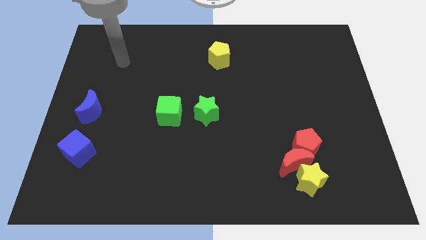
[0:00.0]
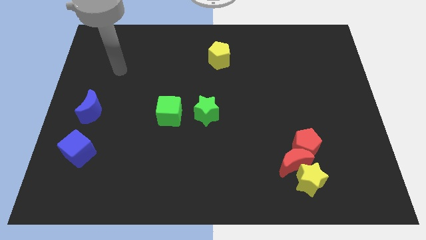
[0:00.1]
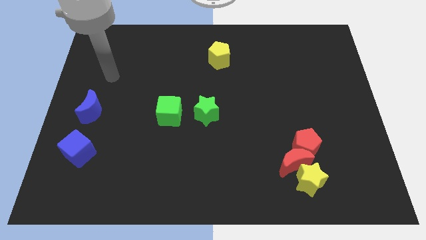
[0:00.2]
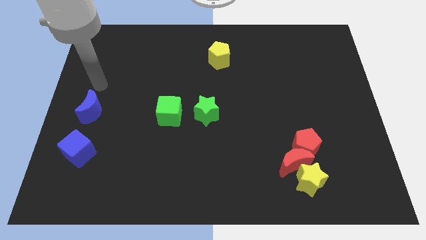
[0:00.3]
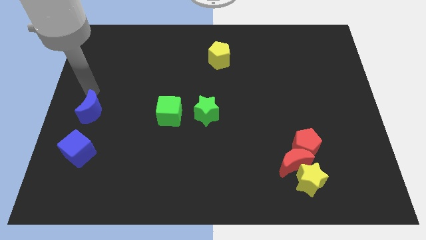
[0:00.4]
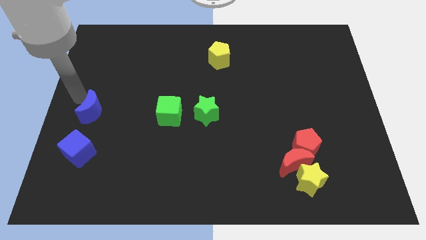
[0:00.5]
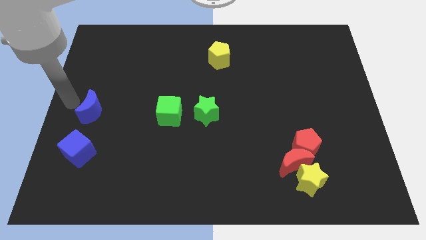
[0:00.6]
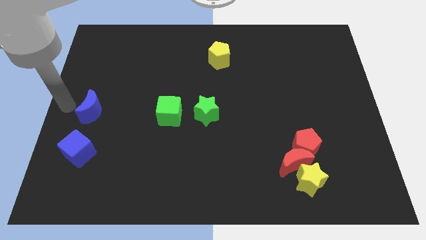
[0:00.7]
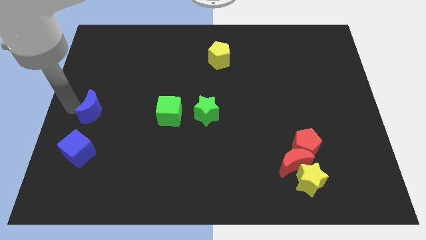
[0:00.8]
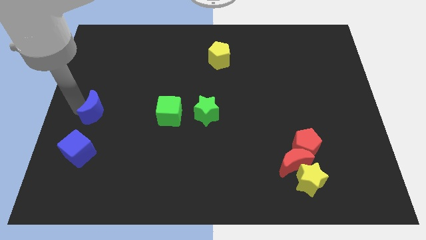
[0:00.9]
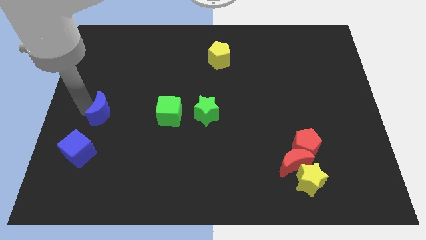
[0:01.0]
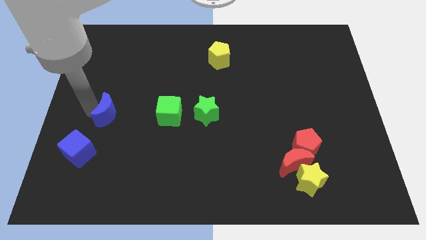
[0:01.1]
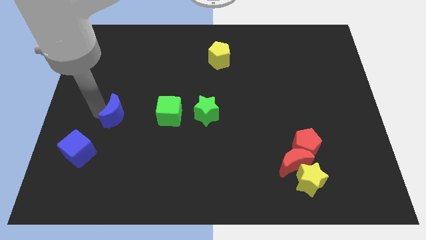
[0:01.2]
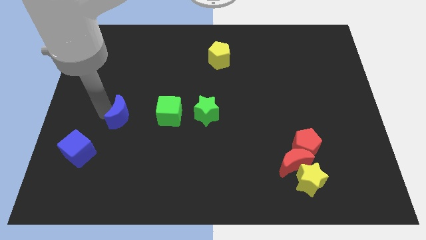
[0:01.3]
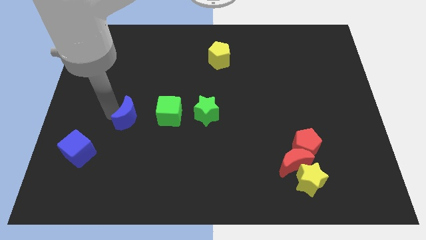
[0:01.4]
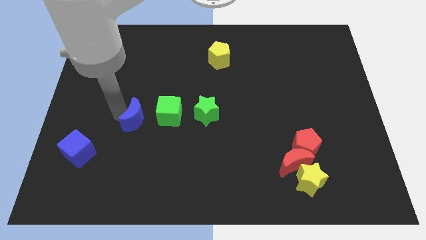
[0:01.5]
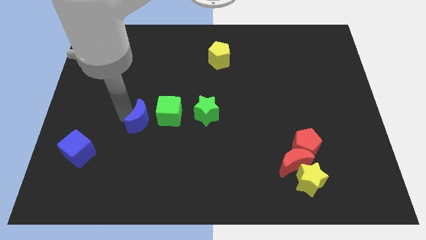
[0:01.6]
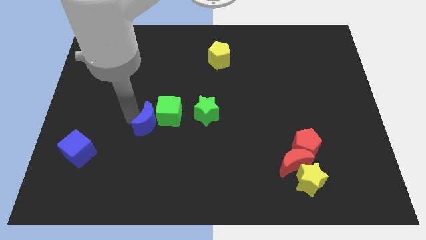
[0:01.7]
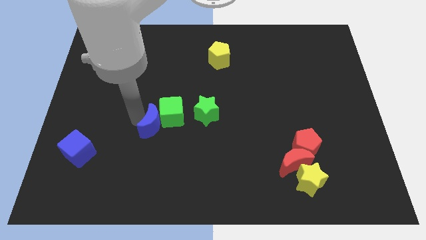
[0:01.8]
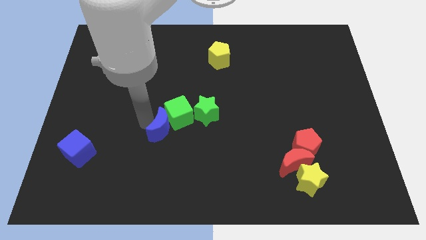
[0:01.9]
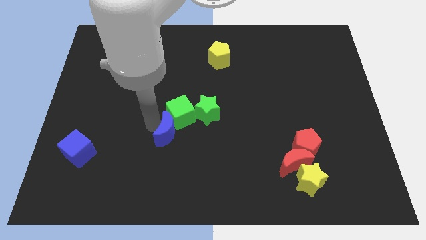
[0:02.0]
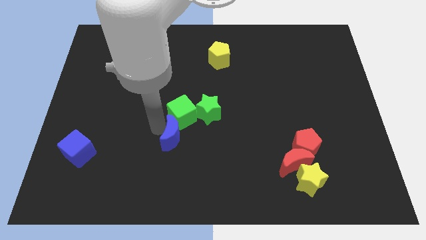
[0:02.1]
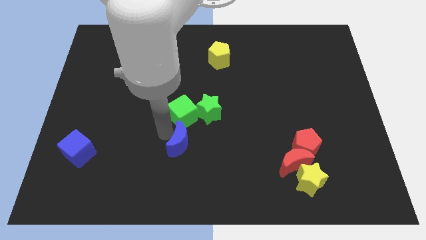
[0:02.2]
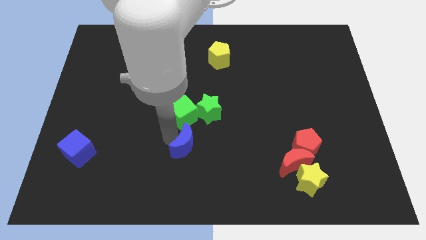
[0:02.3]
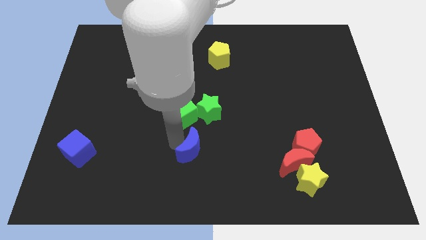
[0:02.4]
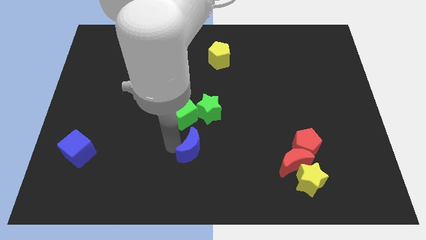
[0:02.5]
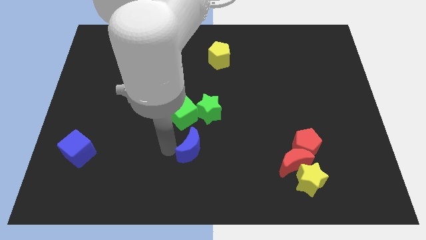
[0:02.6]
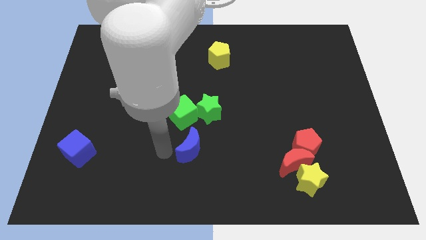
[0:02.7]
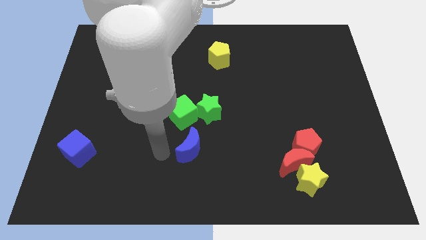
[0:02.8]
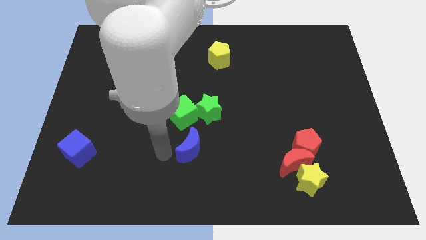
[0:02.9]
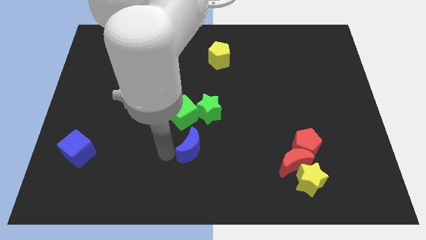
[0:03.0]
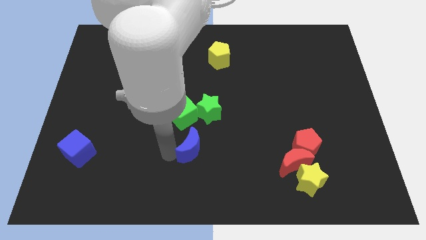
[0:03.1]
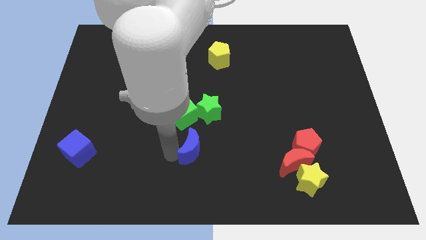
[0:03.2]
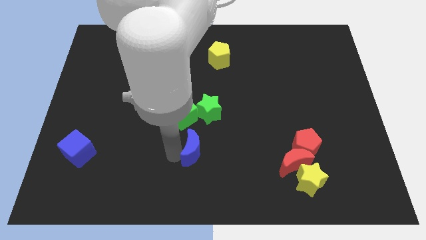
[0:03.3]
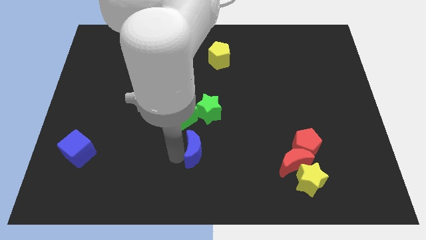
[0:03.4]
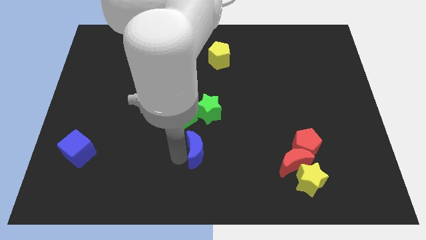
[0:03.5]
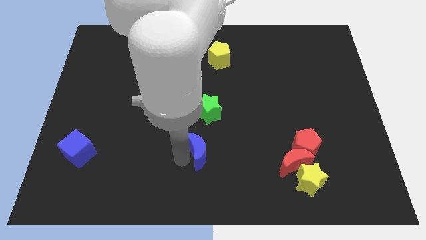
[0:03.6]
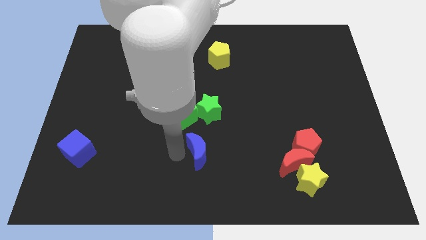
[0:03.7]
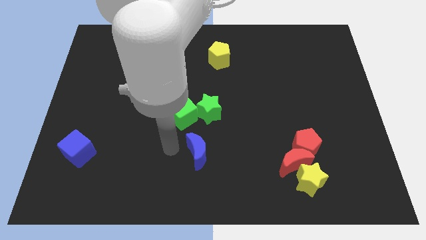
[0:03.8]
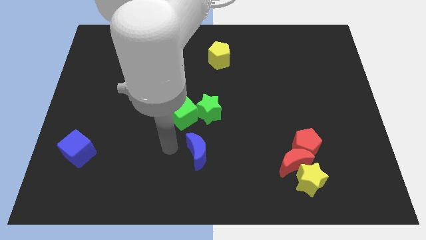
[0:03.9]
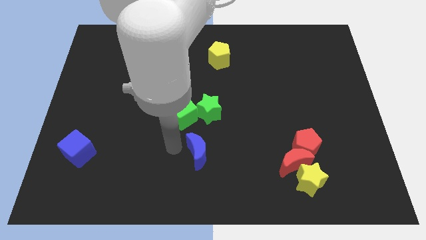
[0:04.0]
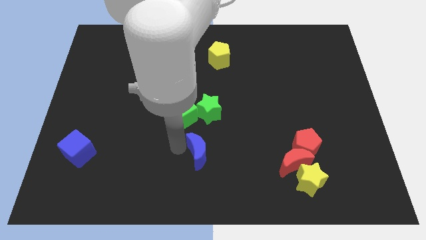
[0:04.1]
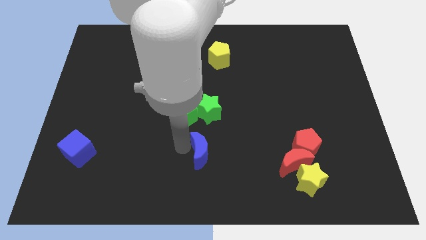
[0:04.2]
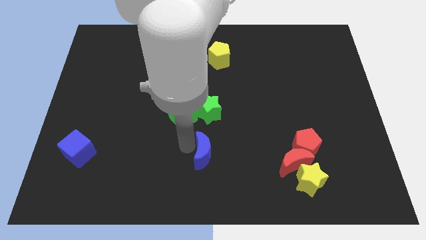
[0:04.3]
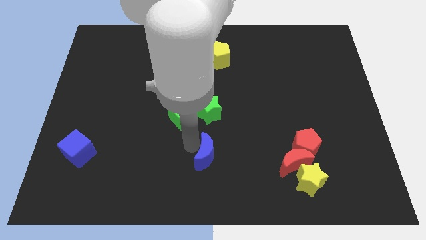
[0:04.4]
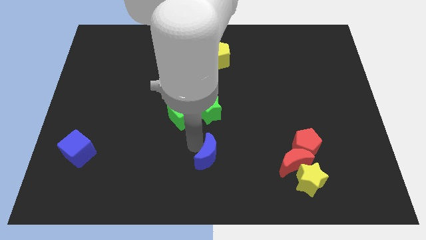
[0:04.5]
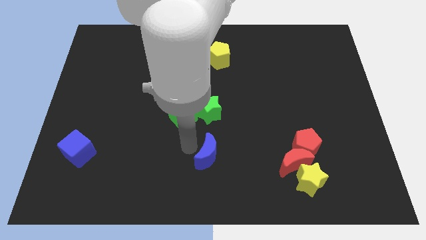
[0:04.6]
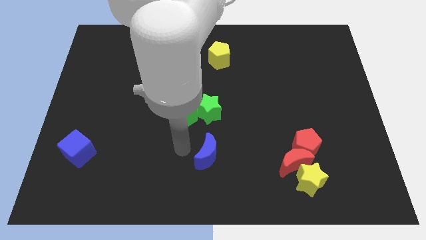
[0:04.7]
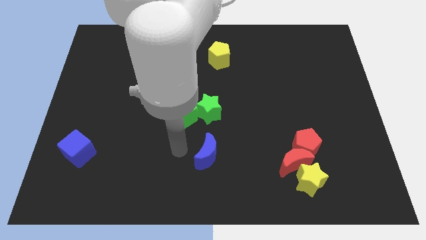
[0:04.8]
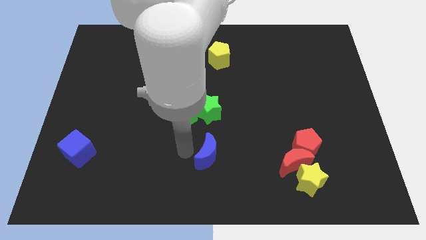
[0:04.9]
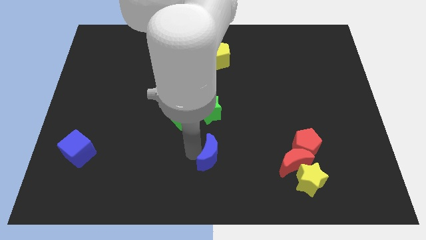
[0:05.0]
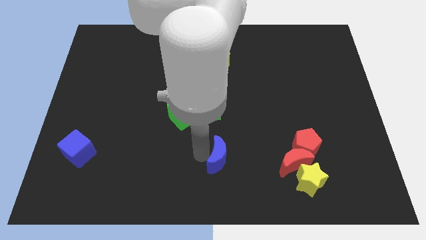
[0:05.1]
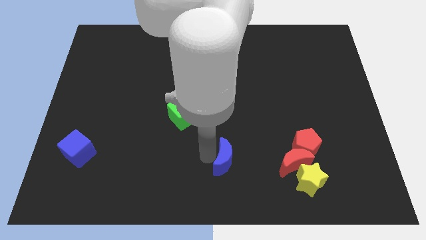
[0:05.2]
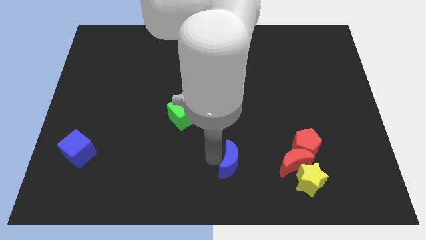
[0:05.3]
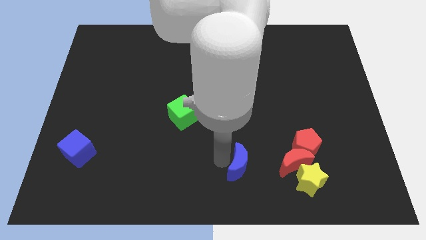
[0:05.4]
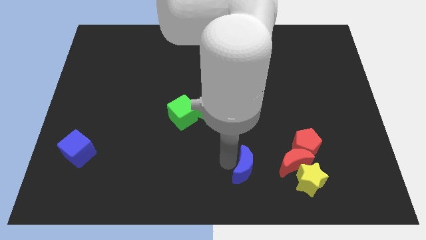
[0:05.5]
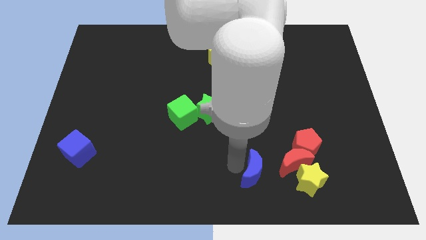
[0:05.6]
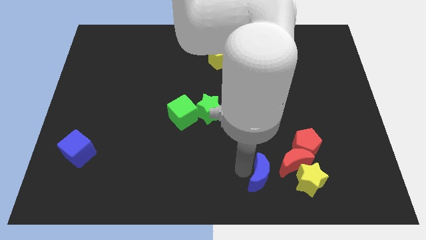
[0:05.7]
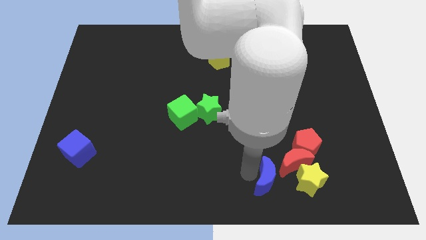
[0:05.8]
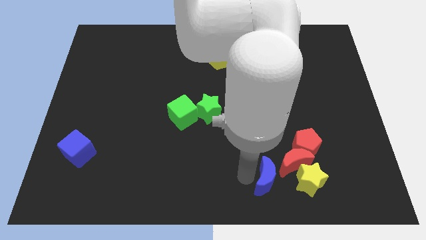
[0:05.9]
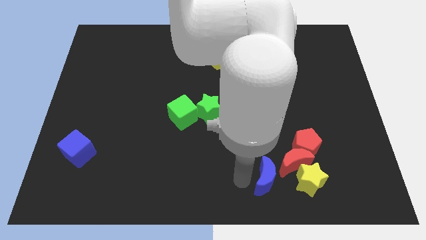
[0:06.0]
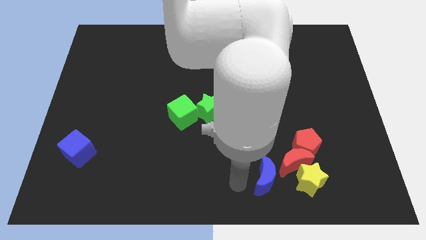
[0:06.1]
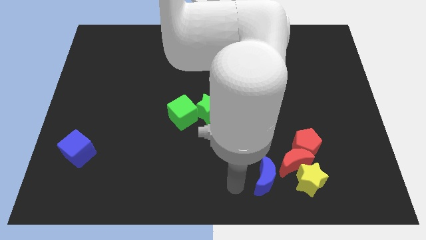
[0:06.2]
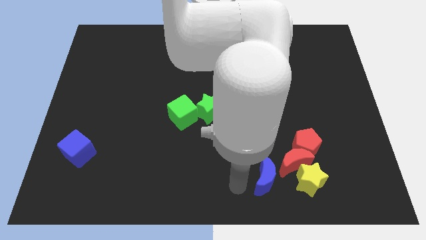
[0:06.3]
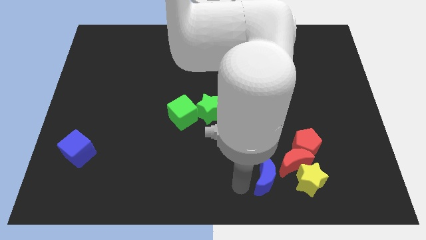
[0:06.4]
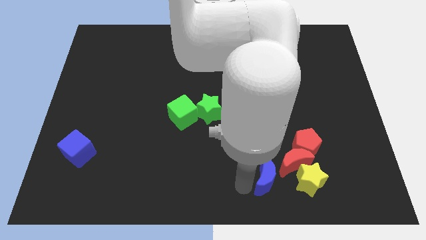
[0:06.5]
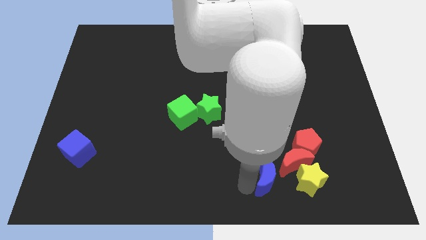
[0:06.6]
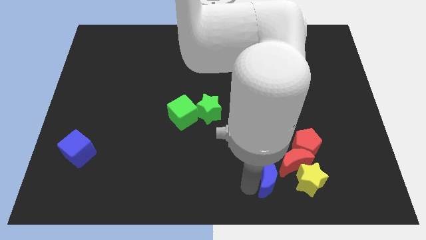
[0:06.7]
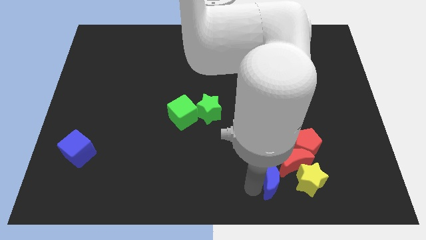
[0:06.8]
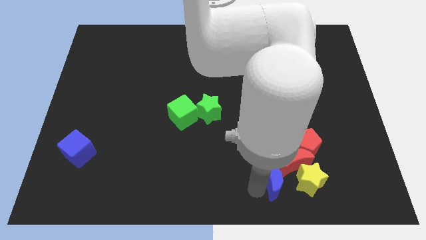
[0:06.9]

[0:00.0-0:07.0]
push the blue moon to the red moon
